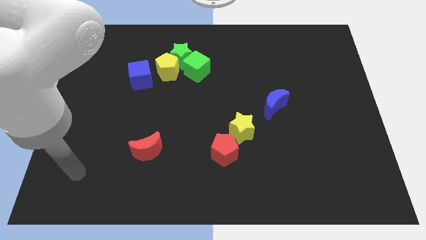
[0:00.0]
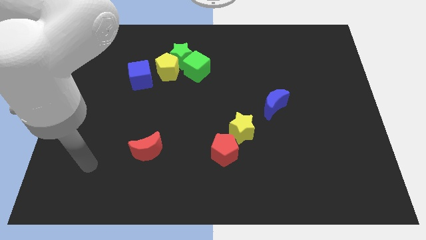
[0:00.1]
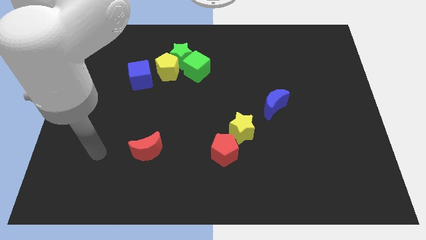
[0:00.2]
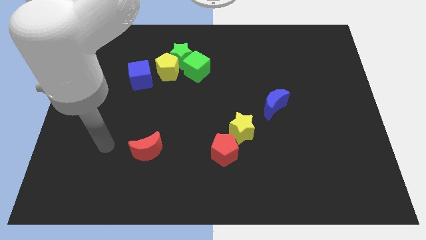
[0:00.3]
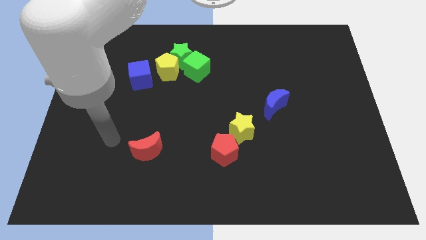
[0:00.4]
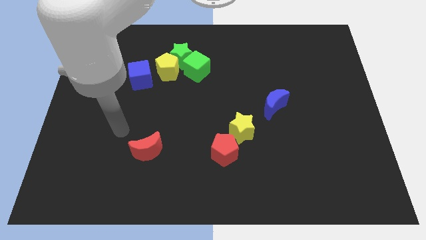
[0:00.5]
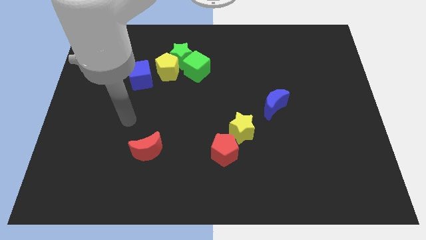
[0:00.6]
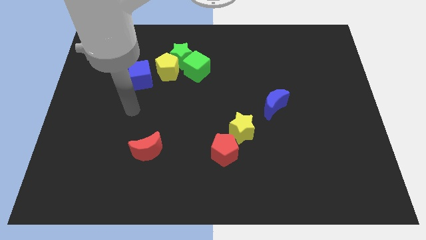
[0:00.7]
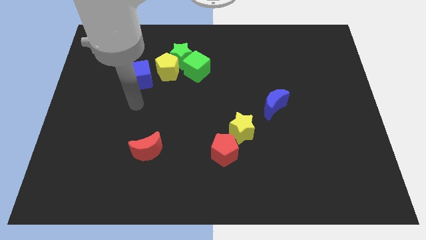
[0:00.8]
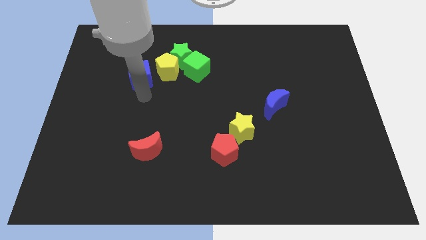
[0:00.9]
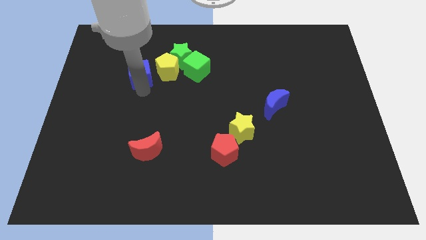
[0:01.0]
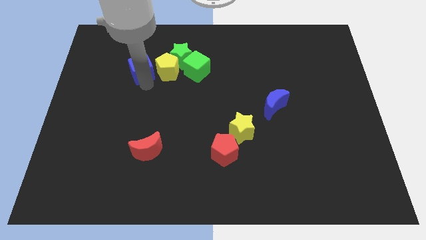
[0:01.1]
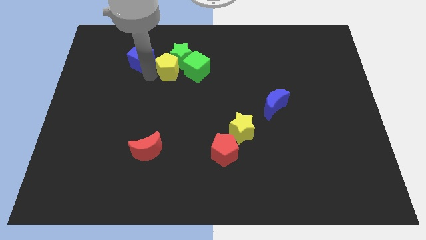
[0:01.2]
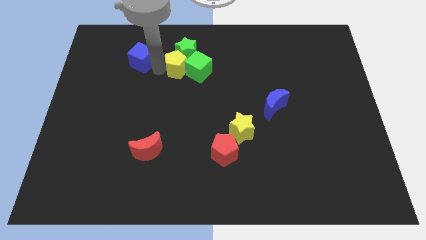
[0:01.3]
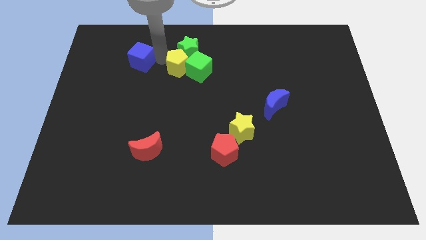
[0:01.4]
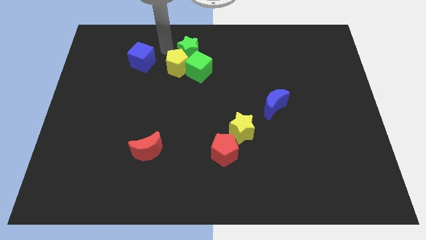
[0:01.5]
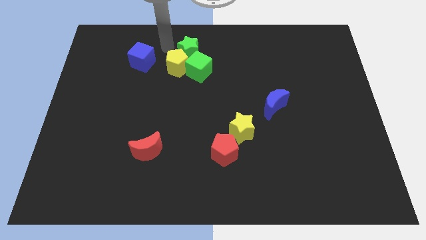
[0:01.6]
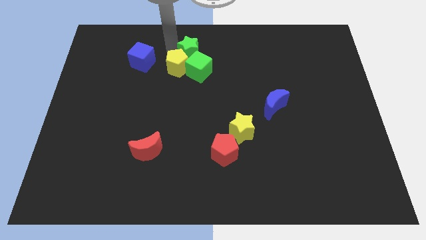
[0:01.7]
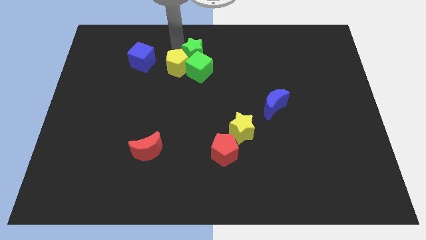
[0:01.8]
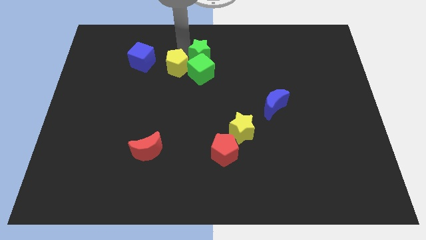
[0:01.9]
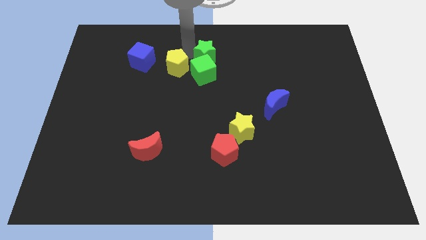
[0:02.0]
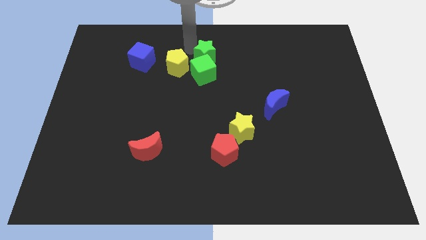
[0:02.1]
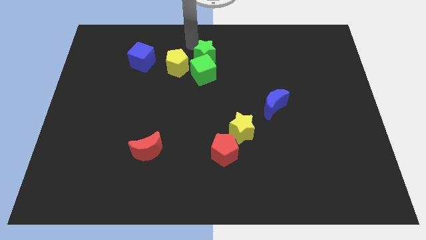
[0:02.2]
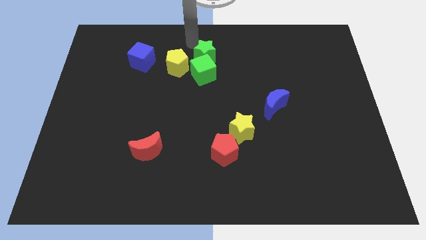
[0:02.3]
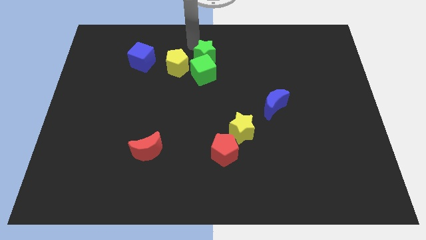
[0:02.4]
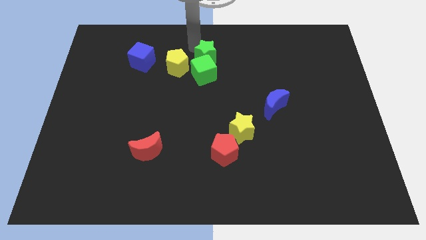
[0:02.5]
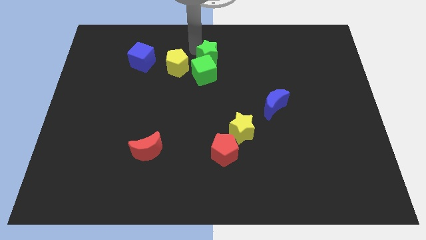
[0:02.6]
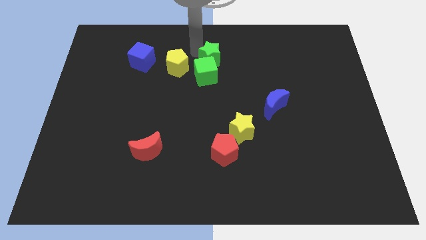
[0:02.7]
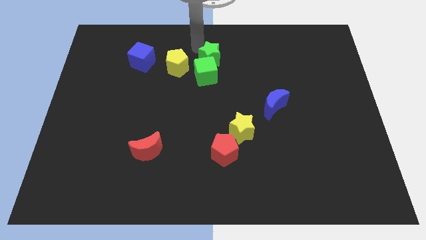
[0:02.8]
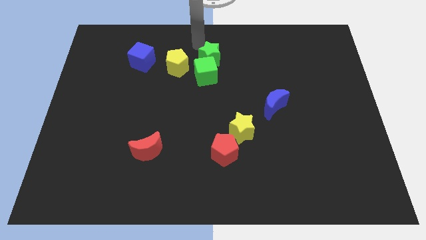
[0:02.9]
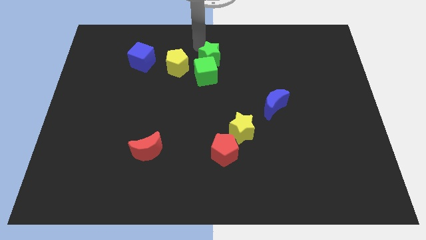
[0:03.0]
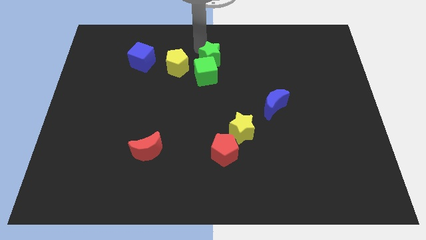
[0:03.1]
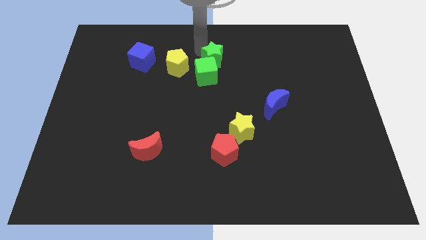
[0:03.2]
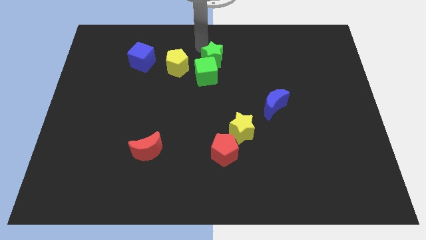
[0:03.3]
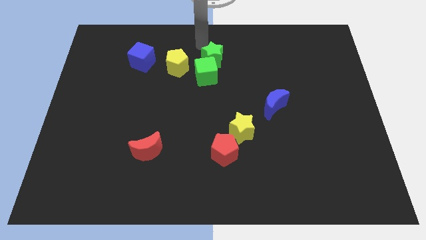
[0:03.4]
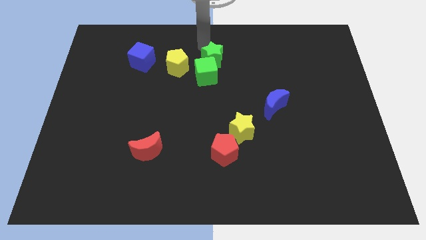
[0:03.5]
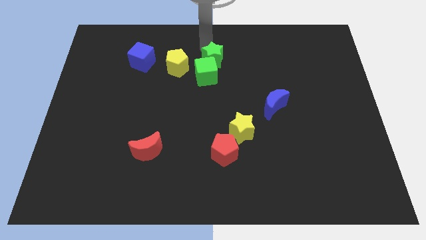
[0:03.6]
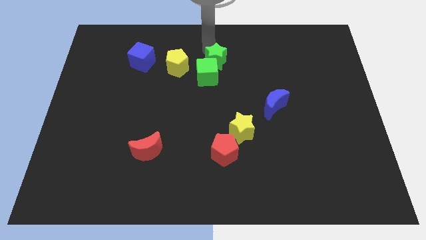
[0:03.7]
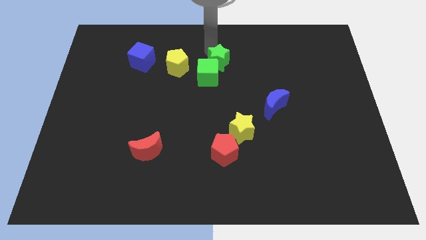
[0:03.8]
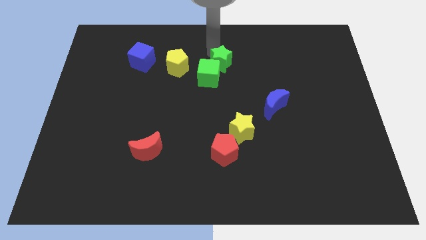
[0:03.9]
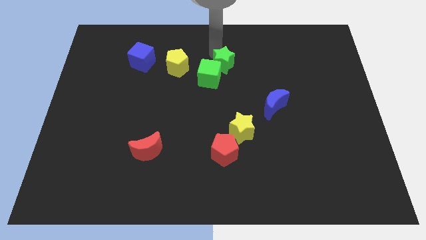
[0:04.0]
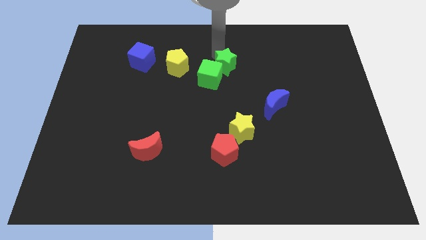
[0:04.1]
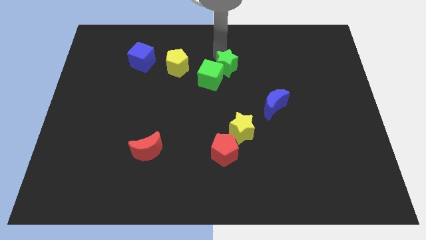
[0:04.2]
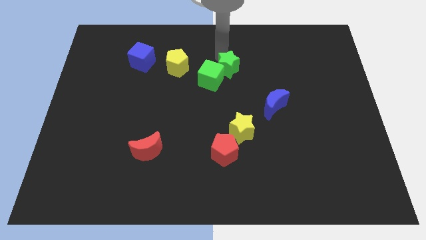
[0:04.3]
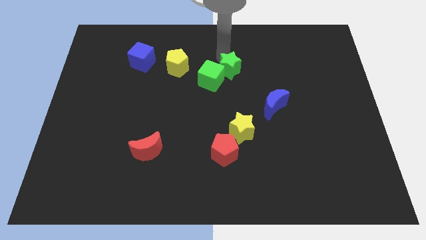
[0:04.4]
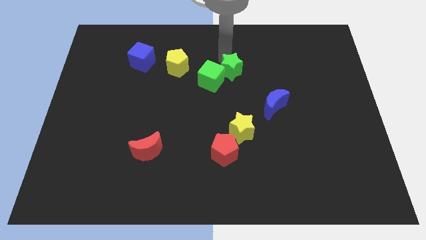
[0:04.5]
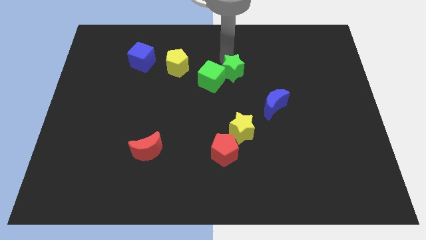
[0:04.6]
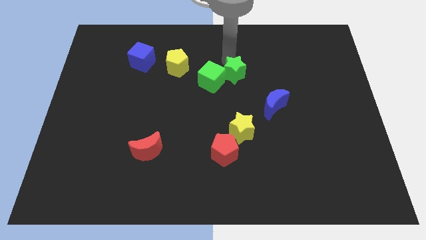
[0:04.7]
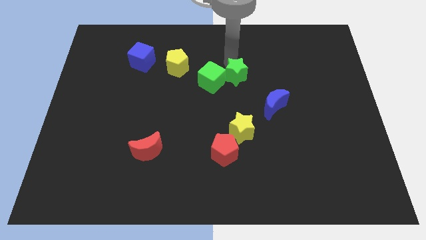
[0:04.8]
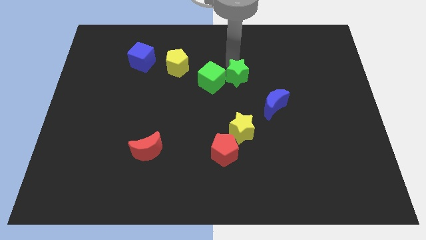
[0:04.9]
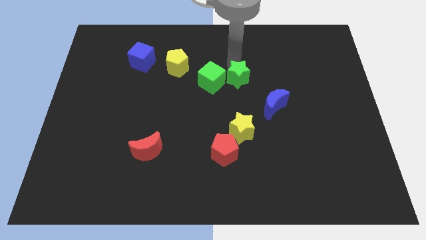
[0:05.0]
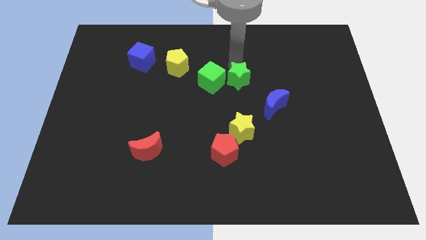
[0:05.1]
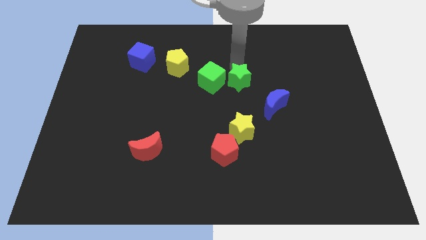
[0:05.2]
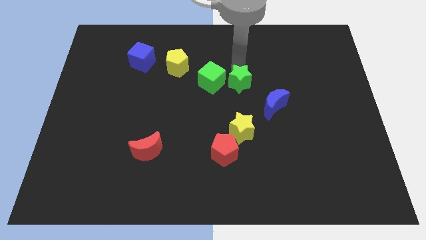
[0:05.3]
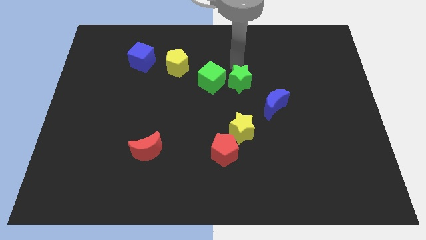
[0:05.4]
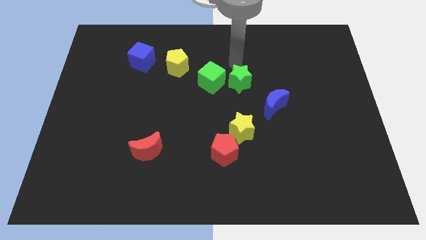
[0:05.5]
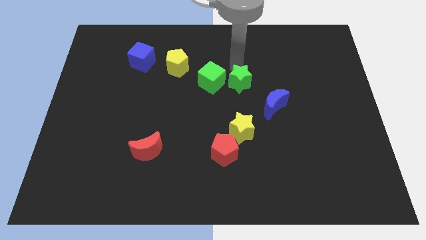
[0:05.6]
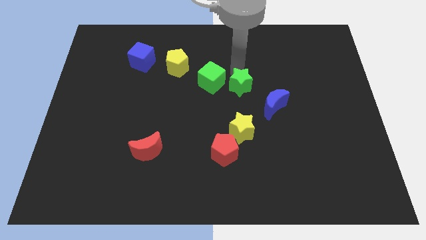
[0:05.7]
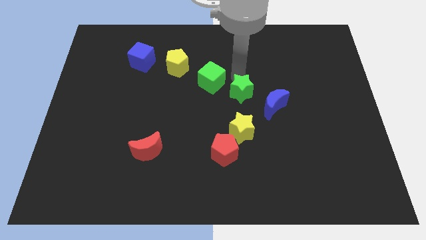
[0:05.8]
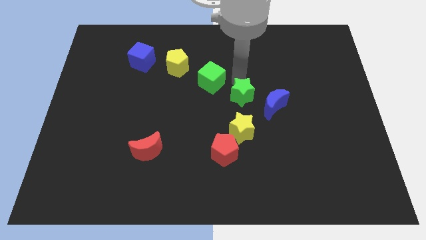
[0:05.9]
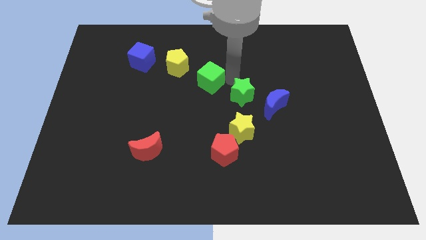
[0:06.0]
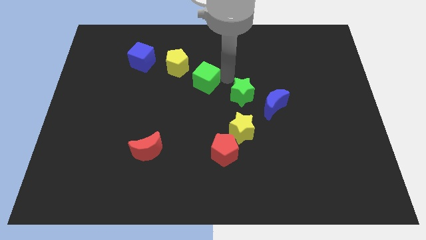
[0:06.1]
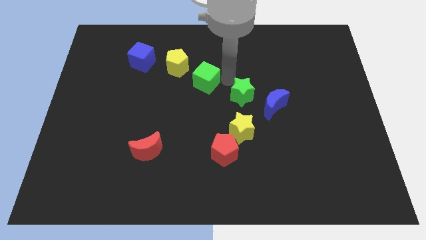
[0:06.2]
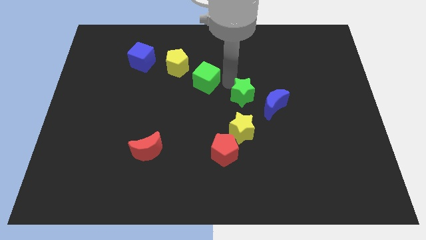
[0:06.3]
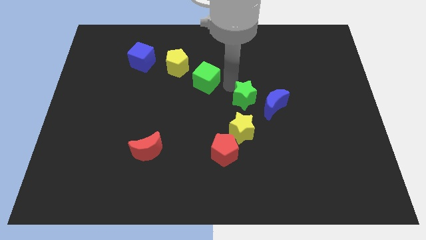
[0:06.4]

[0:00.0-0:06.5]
push the green star down and then right

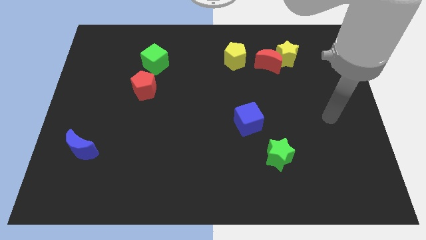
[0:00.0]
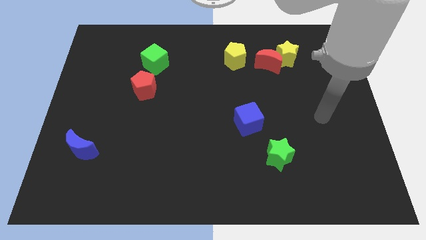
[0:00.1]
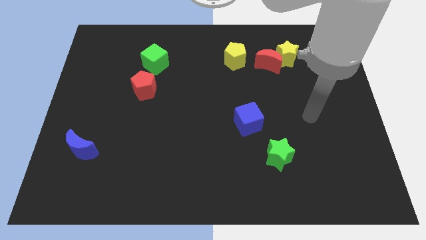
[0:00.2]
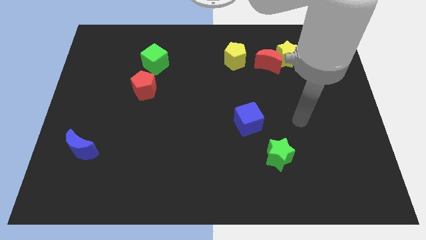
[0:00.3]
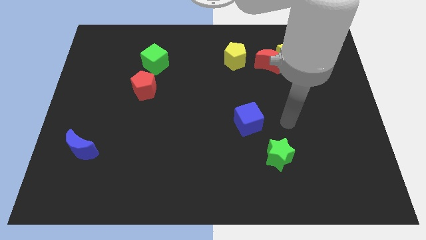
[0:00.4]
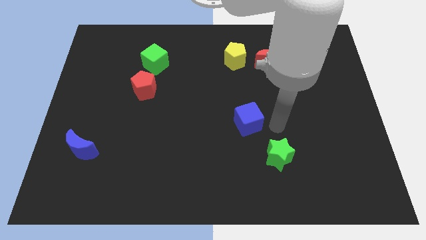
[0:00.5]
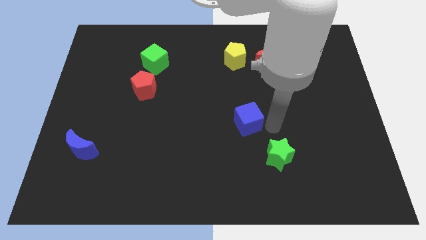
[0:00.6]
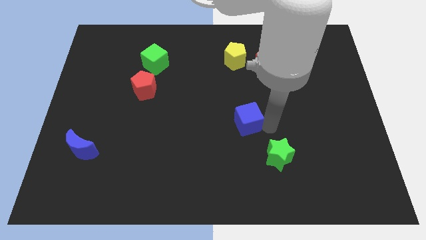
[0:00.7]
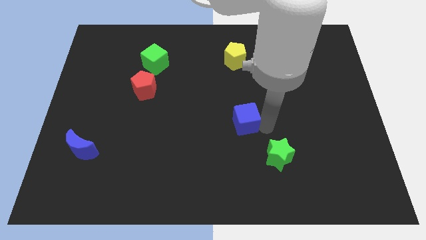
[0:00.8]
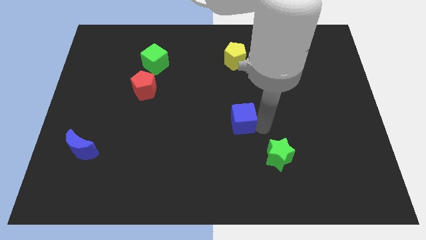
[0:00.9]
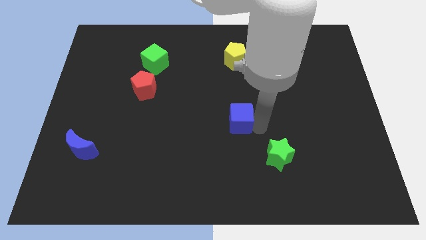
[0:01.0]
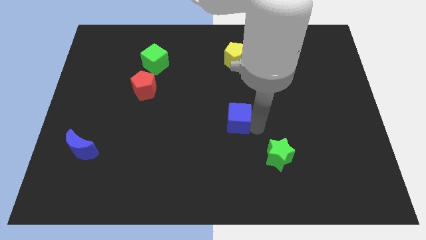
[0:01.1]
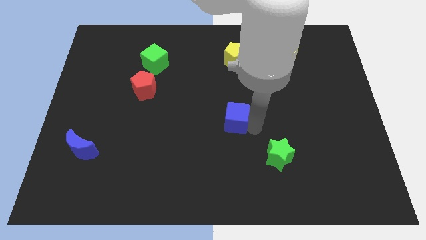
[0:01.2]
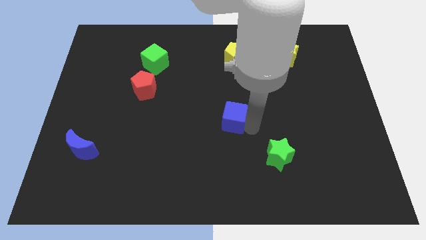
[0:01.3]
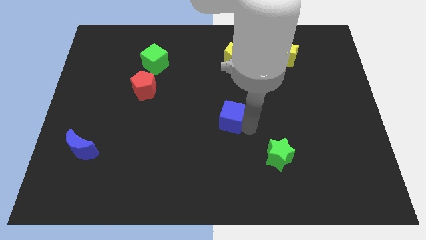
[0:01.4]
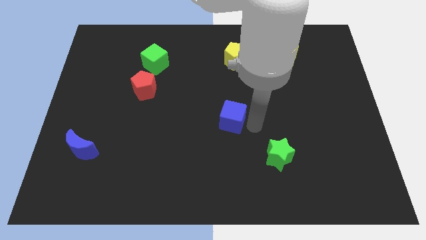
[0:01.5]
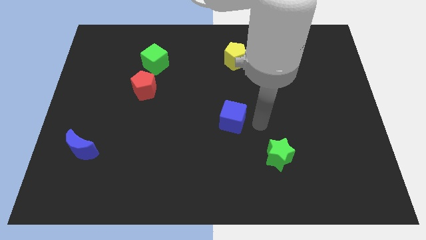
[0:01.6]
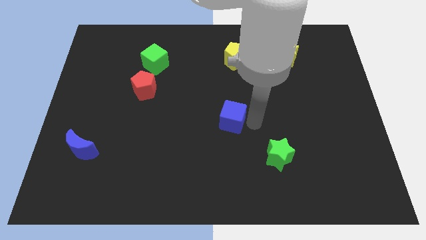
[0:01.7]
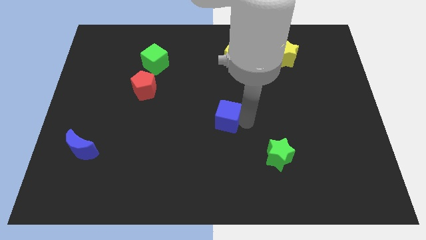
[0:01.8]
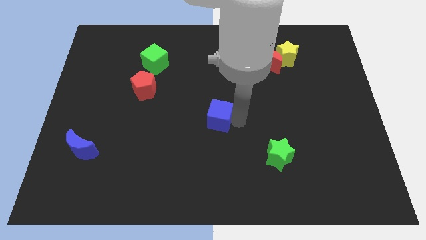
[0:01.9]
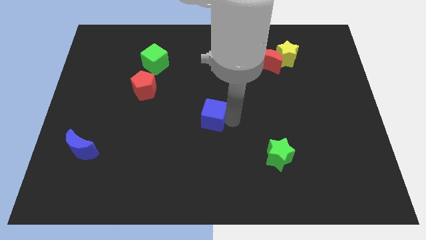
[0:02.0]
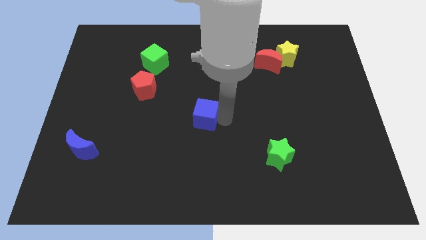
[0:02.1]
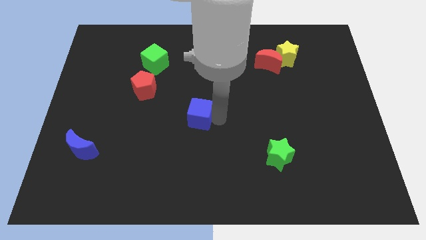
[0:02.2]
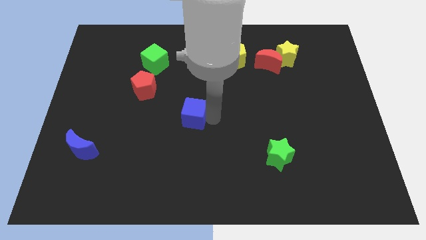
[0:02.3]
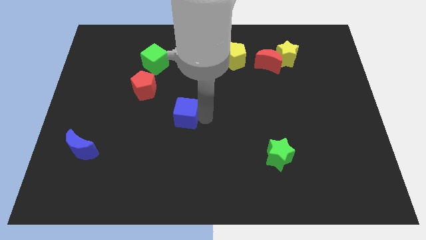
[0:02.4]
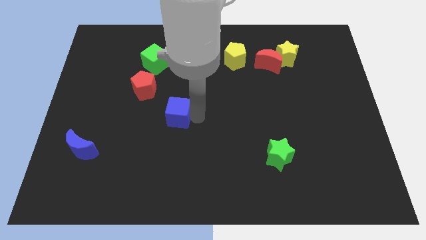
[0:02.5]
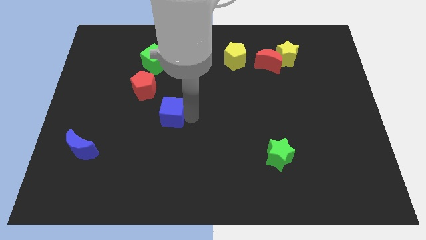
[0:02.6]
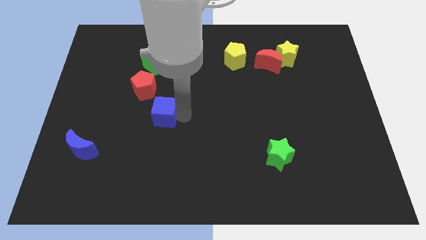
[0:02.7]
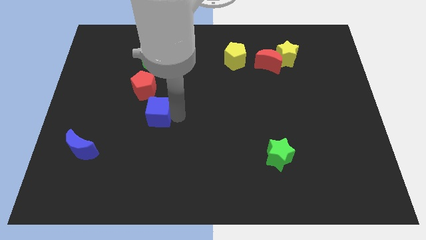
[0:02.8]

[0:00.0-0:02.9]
move the blue cube left
